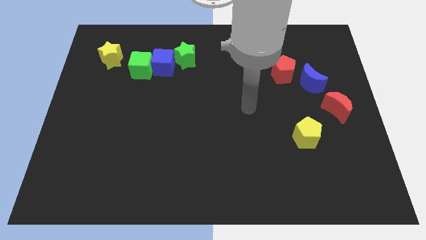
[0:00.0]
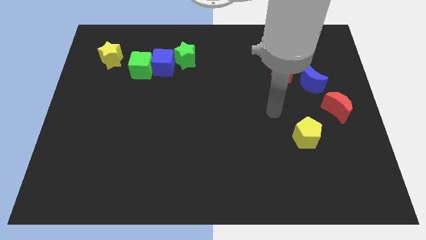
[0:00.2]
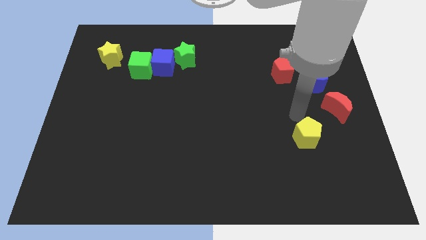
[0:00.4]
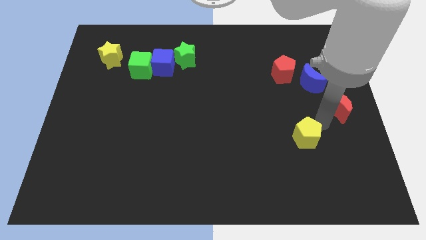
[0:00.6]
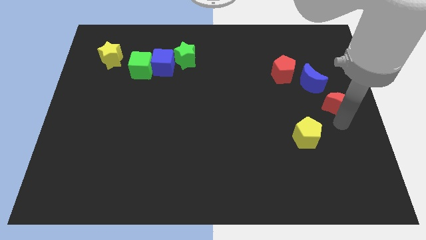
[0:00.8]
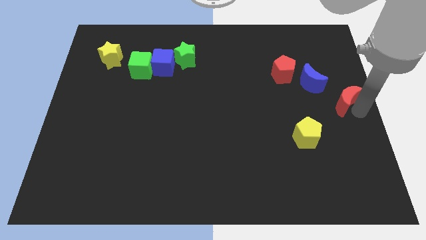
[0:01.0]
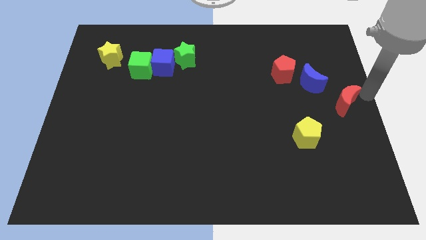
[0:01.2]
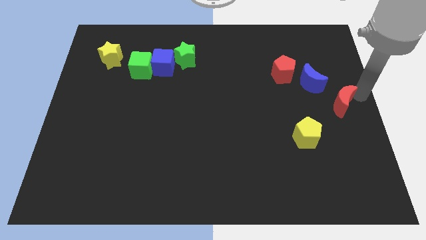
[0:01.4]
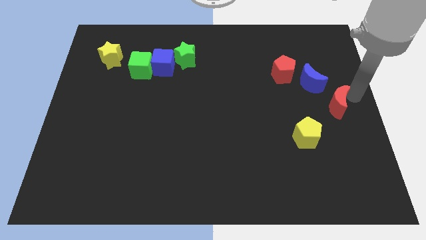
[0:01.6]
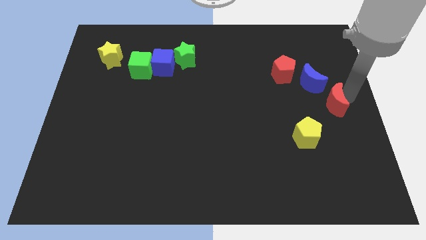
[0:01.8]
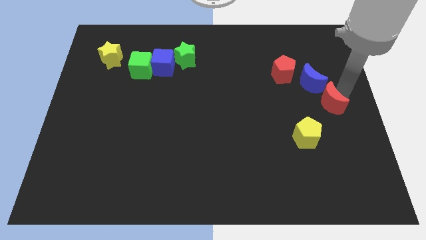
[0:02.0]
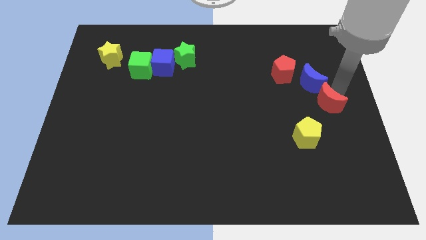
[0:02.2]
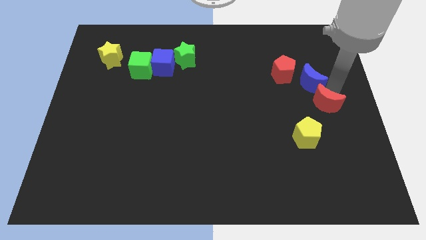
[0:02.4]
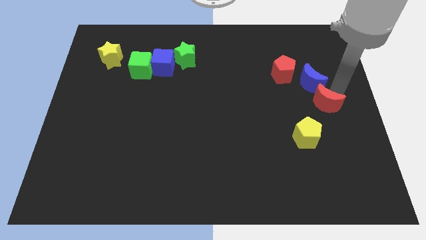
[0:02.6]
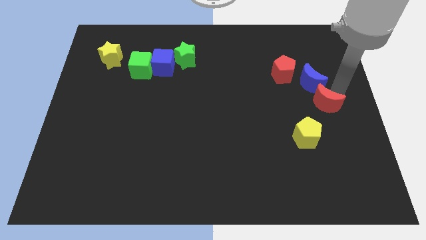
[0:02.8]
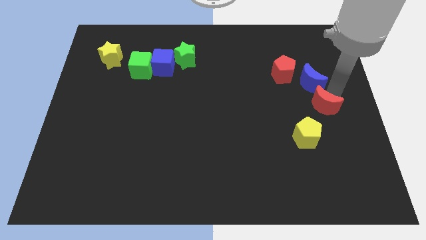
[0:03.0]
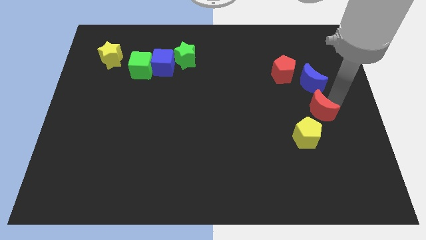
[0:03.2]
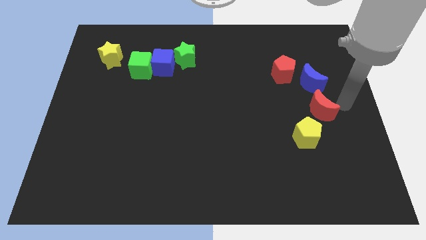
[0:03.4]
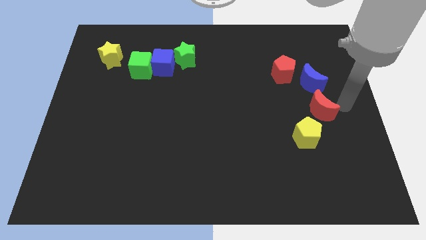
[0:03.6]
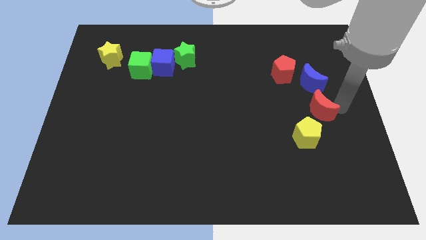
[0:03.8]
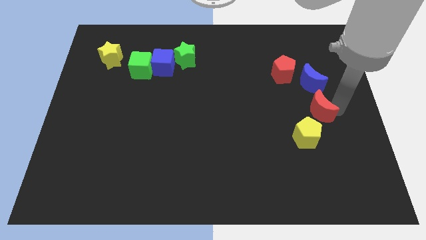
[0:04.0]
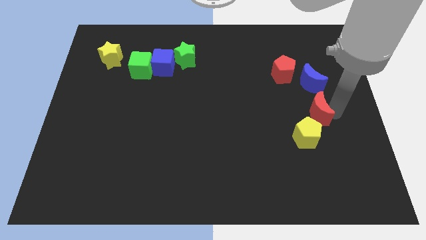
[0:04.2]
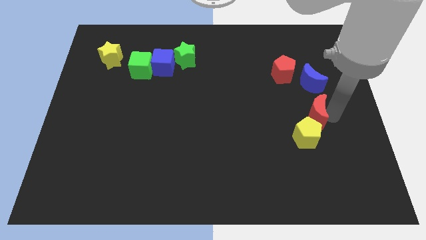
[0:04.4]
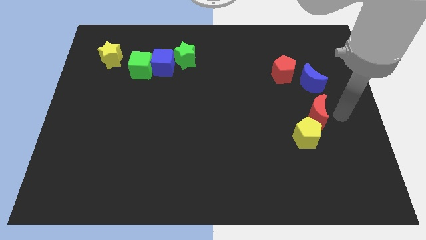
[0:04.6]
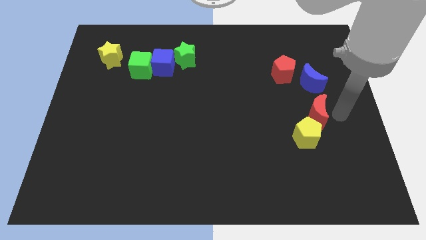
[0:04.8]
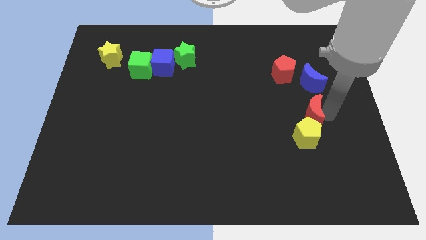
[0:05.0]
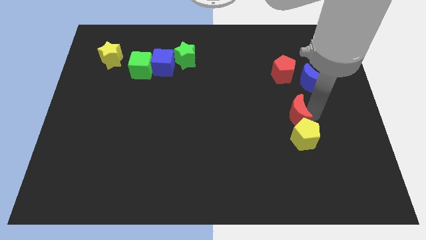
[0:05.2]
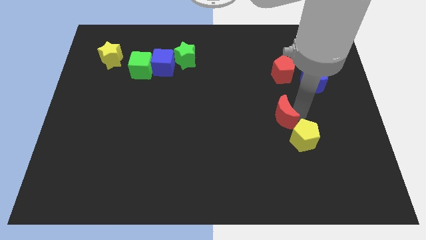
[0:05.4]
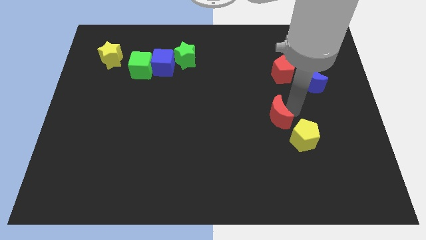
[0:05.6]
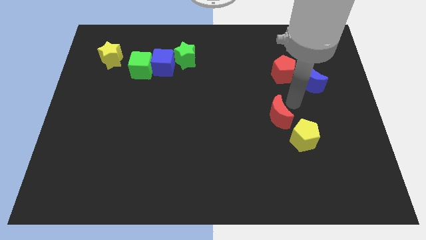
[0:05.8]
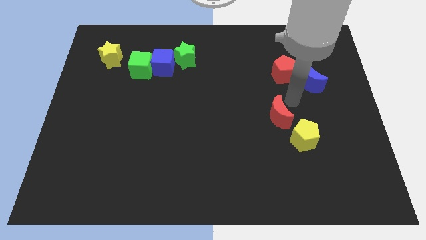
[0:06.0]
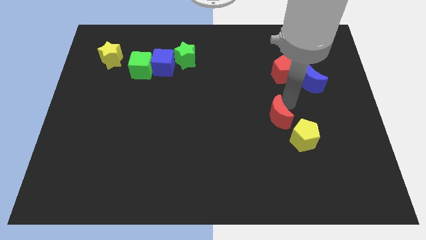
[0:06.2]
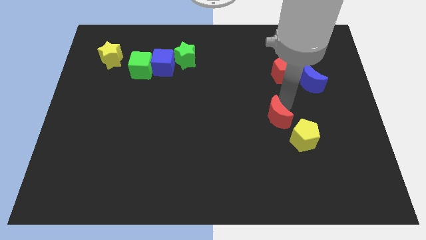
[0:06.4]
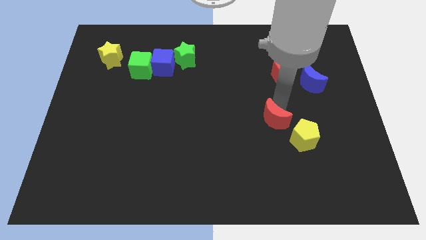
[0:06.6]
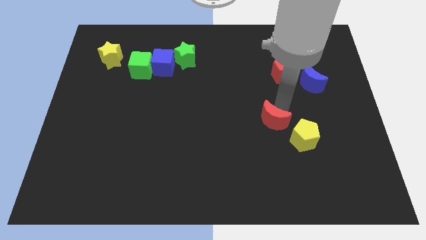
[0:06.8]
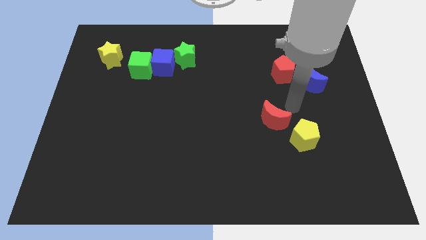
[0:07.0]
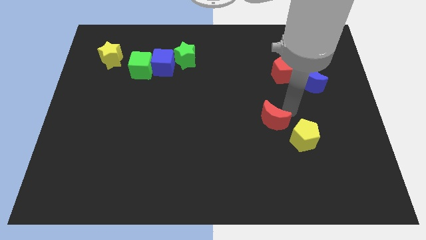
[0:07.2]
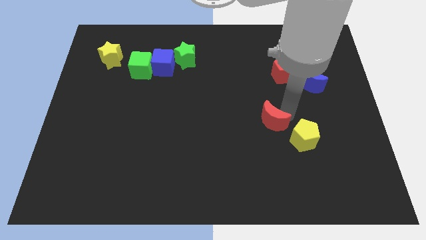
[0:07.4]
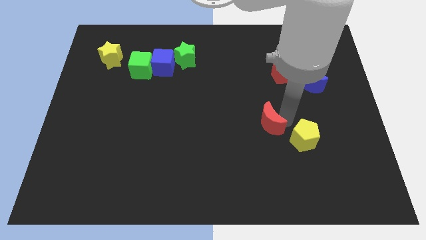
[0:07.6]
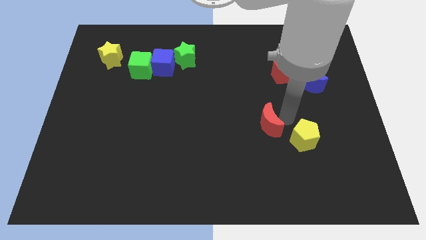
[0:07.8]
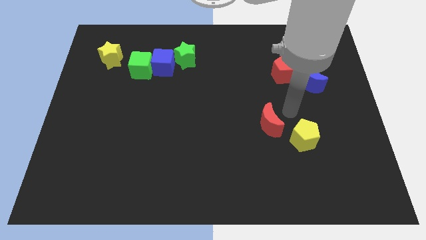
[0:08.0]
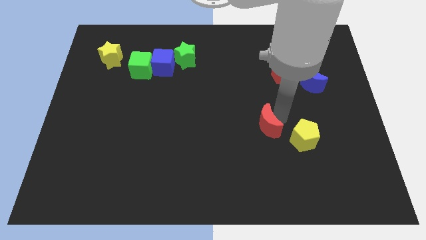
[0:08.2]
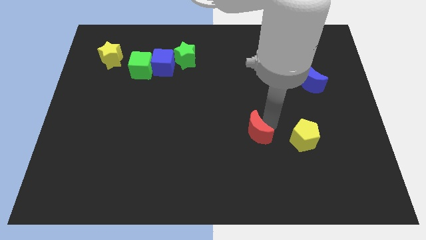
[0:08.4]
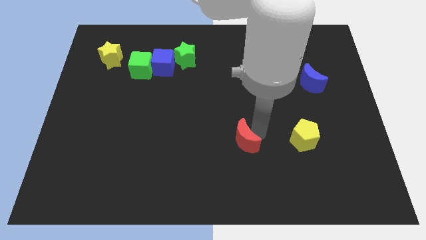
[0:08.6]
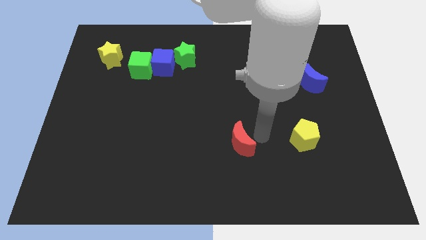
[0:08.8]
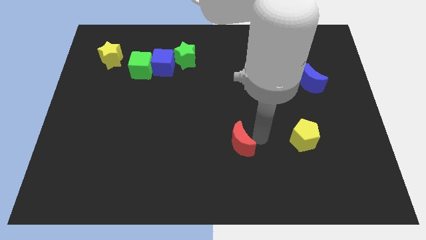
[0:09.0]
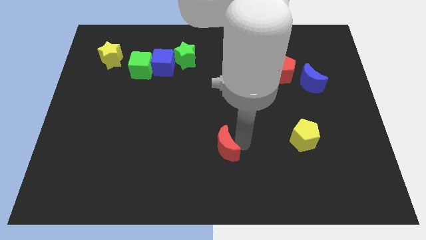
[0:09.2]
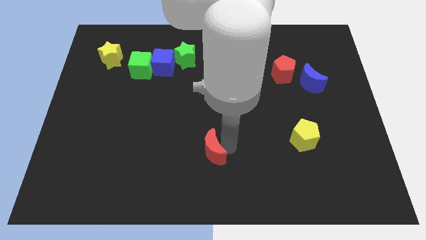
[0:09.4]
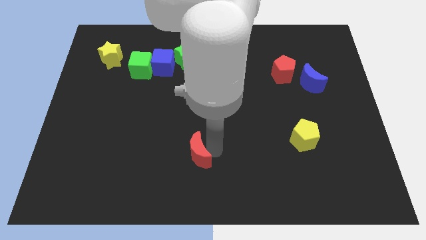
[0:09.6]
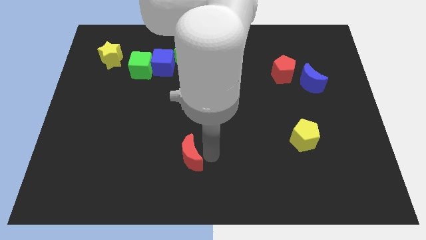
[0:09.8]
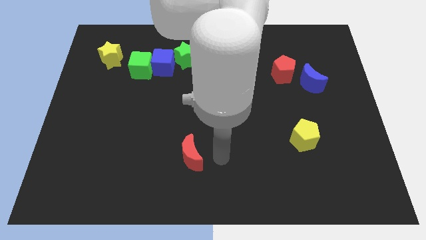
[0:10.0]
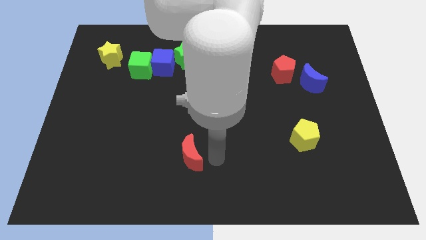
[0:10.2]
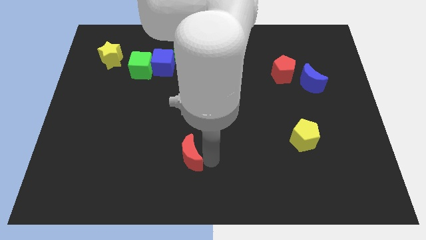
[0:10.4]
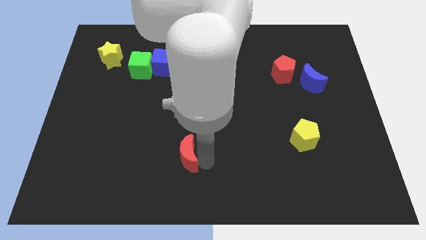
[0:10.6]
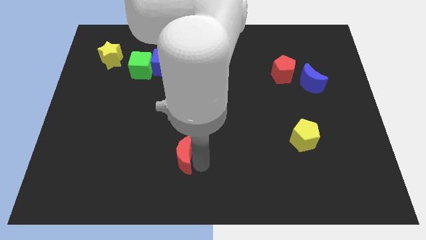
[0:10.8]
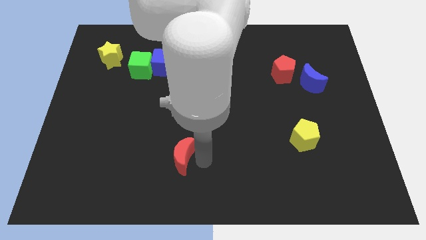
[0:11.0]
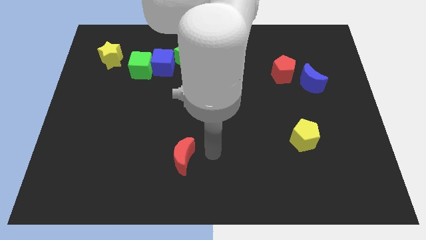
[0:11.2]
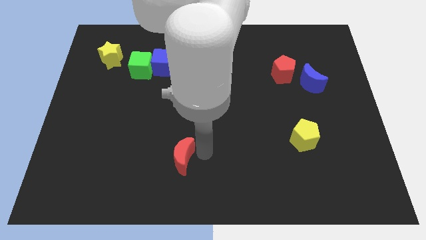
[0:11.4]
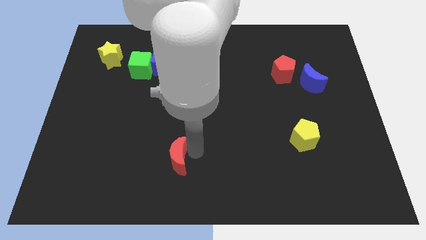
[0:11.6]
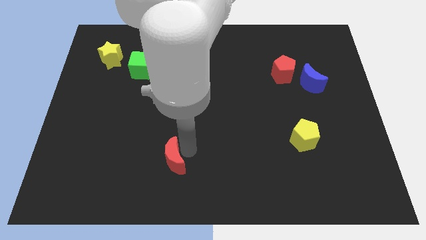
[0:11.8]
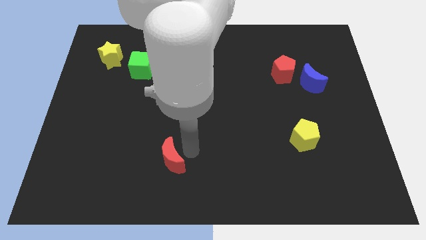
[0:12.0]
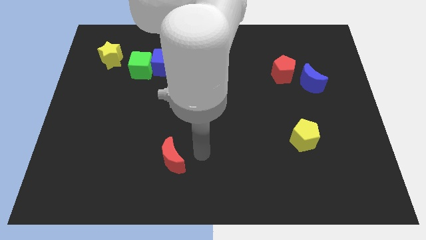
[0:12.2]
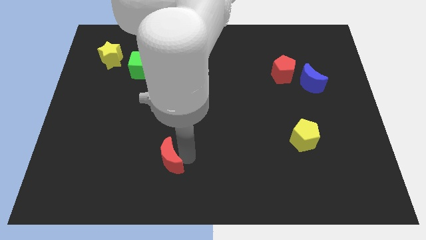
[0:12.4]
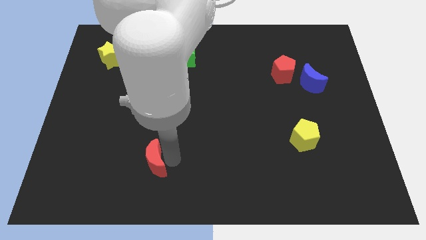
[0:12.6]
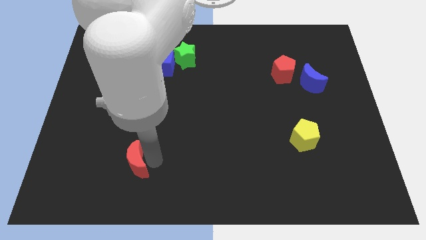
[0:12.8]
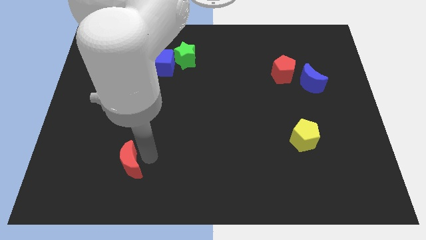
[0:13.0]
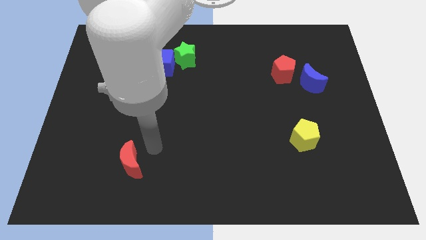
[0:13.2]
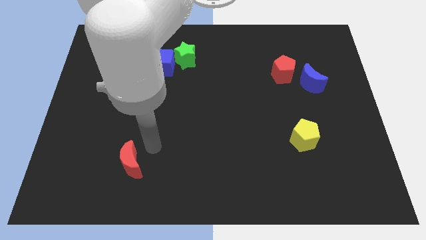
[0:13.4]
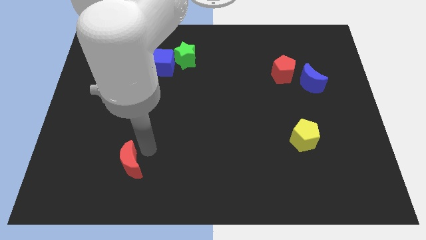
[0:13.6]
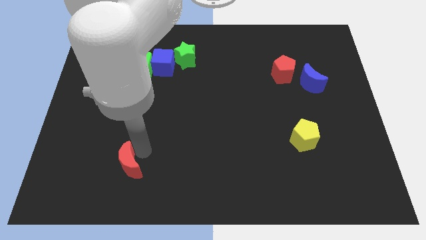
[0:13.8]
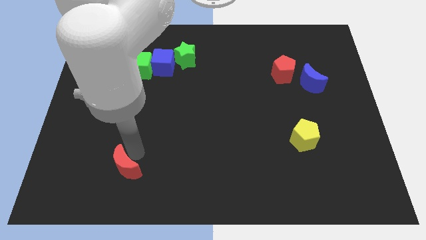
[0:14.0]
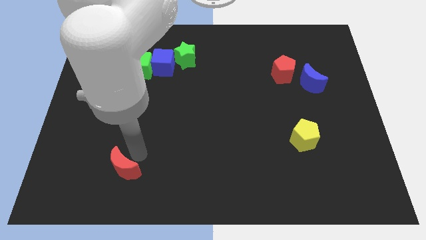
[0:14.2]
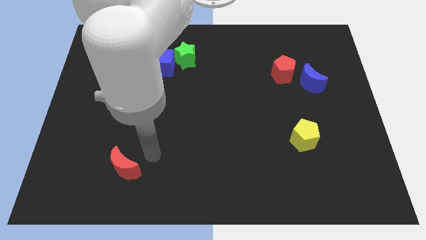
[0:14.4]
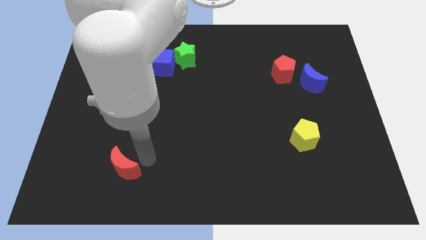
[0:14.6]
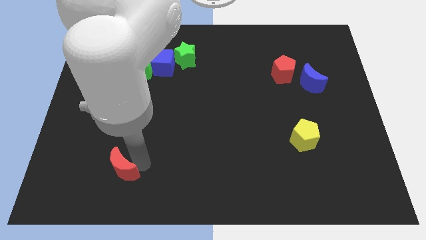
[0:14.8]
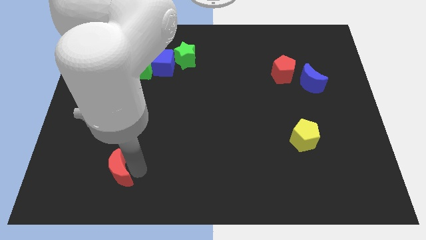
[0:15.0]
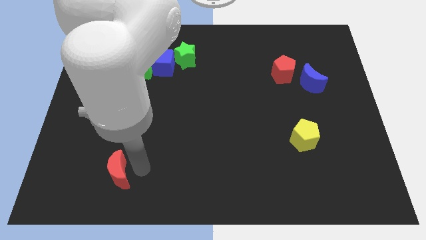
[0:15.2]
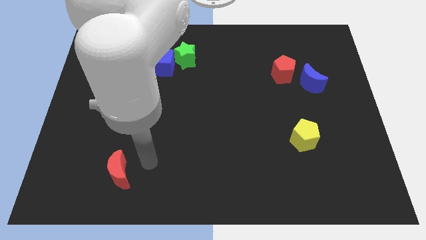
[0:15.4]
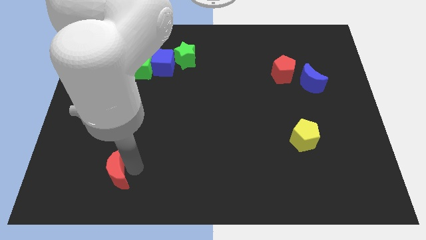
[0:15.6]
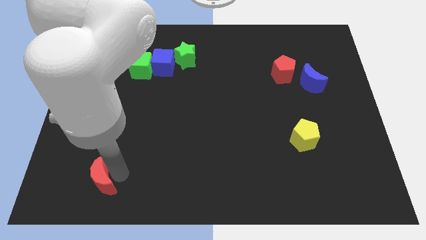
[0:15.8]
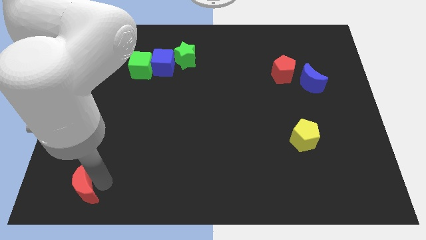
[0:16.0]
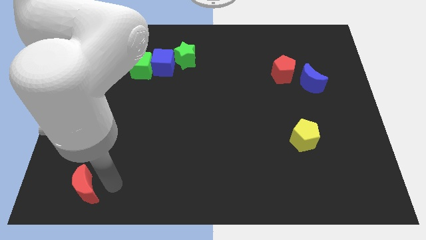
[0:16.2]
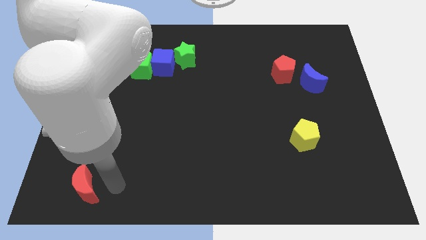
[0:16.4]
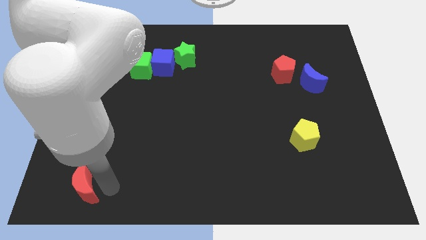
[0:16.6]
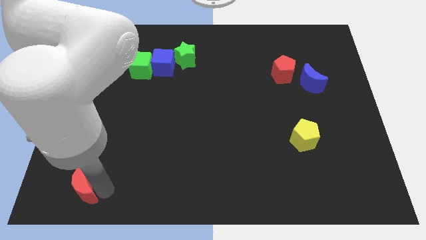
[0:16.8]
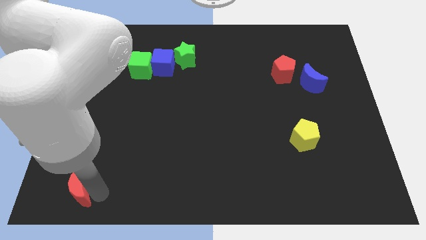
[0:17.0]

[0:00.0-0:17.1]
move the red moon to the lower left corner
